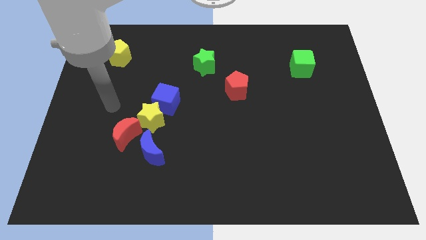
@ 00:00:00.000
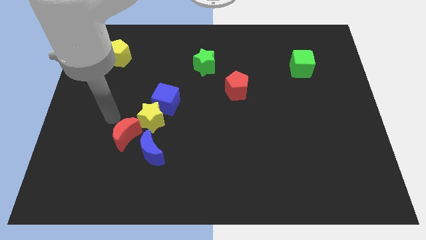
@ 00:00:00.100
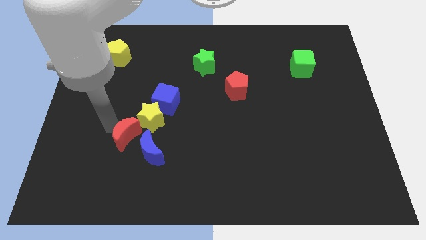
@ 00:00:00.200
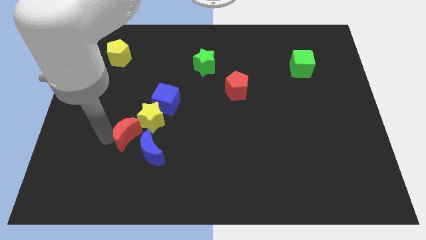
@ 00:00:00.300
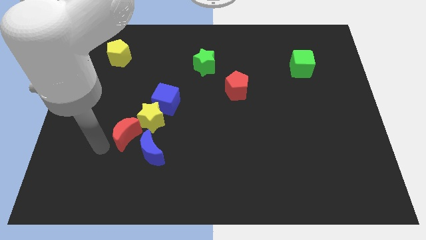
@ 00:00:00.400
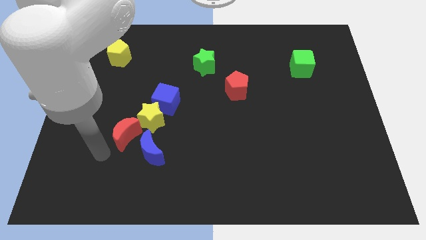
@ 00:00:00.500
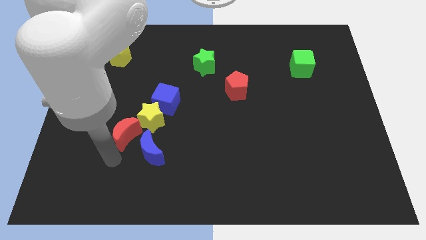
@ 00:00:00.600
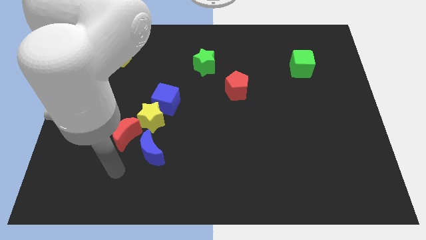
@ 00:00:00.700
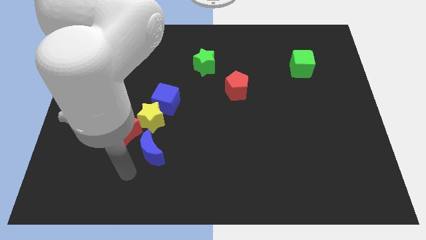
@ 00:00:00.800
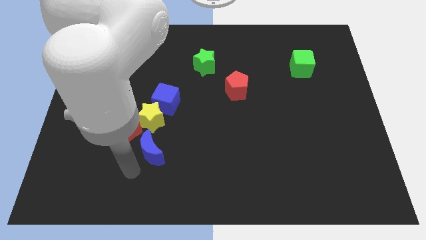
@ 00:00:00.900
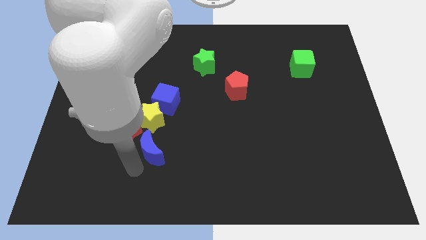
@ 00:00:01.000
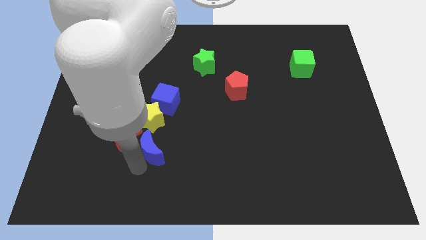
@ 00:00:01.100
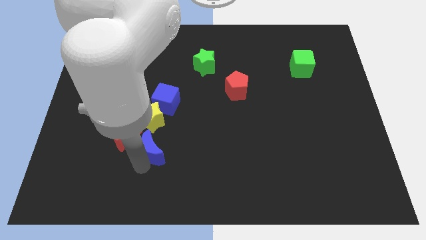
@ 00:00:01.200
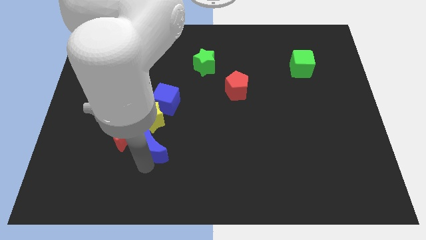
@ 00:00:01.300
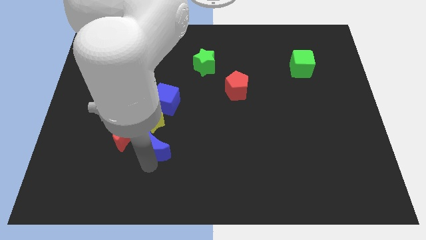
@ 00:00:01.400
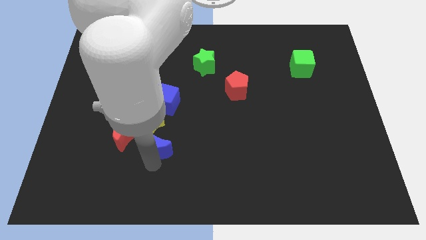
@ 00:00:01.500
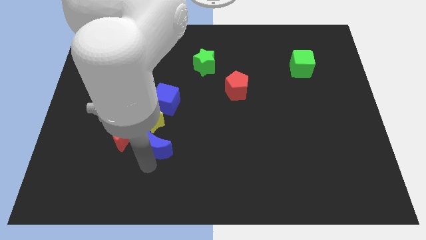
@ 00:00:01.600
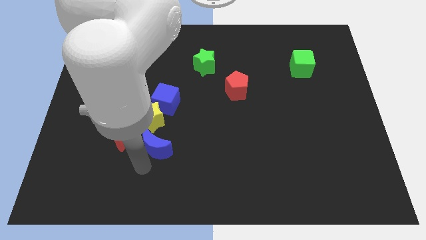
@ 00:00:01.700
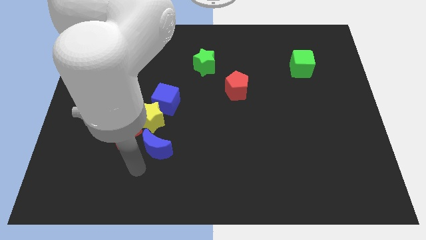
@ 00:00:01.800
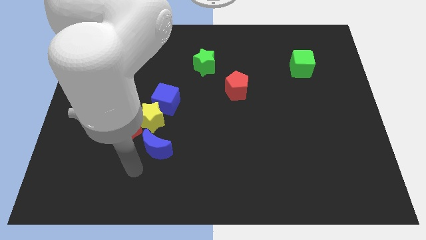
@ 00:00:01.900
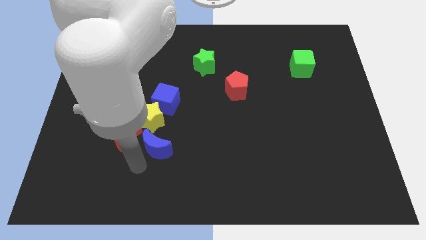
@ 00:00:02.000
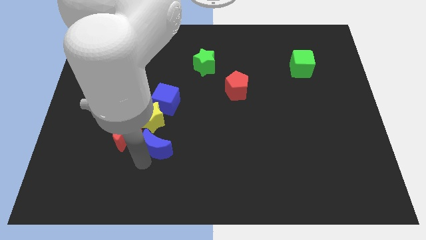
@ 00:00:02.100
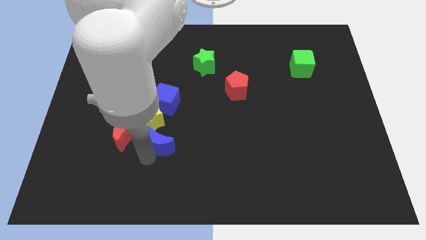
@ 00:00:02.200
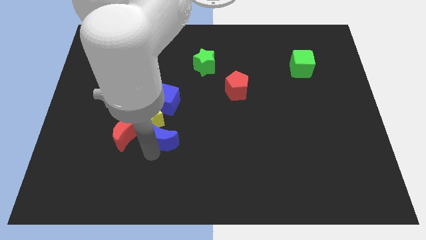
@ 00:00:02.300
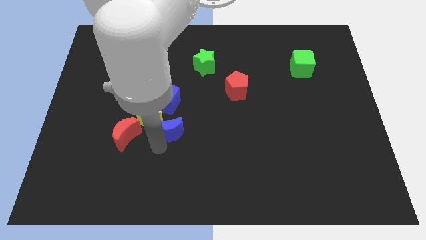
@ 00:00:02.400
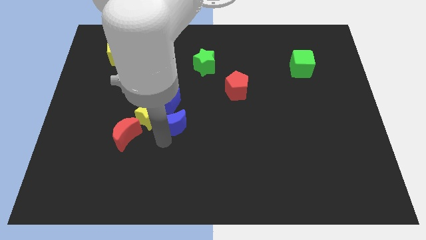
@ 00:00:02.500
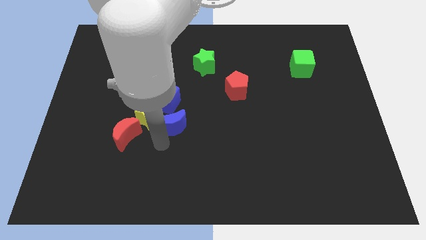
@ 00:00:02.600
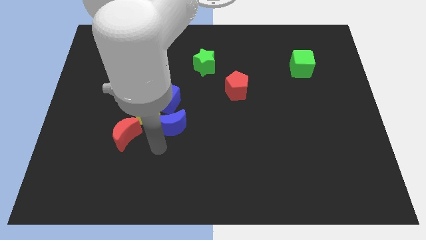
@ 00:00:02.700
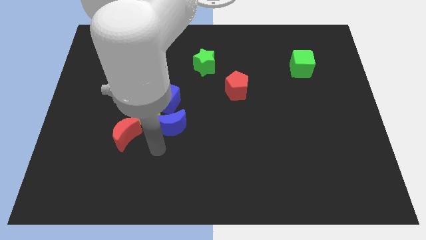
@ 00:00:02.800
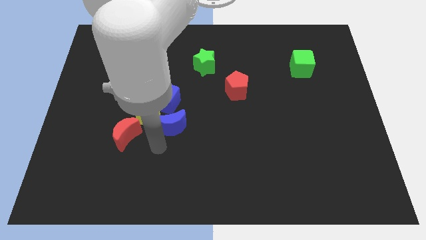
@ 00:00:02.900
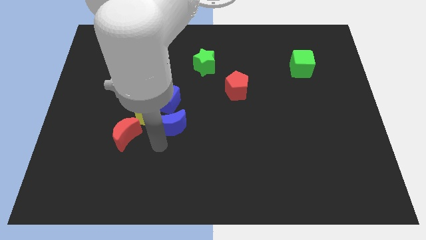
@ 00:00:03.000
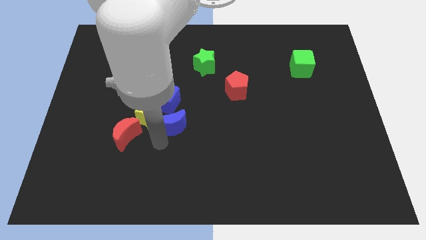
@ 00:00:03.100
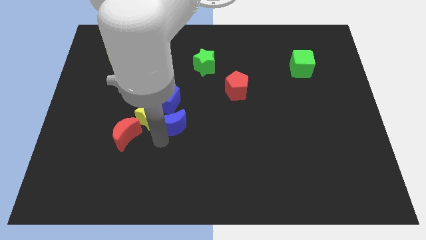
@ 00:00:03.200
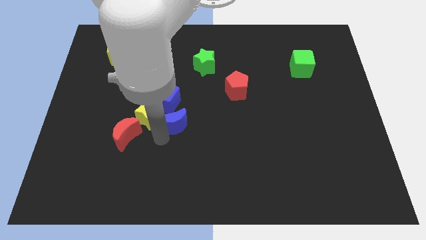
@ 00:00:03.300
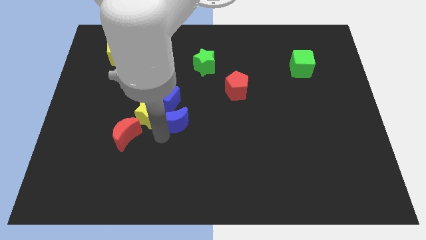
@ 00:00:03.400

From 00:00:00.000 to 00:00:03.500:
slide the blue moon a little upwards

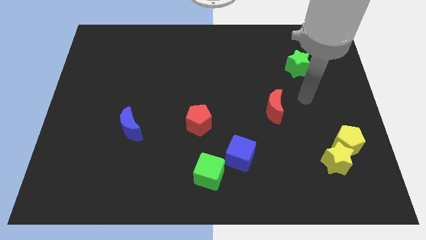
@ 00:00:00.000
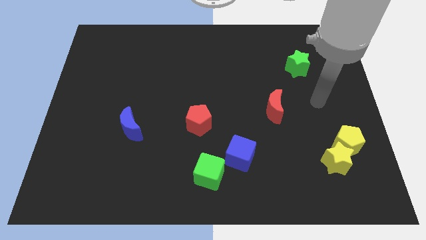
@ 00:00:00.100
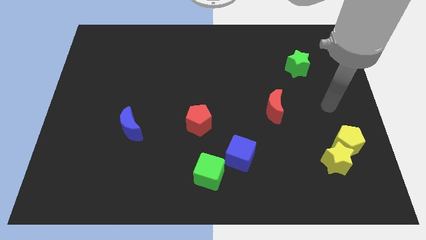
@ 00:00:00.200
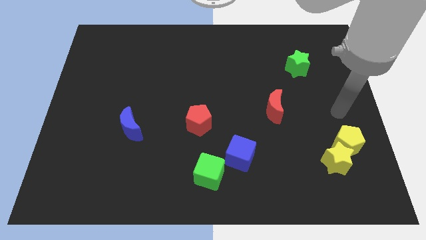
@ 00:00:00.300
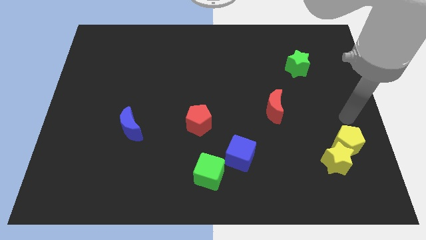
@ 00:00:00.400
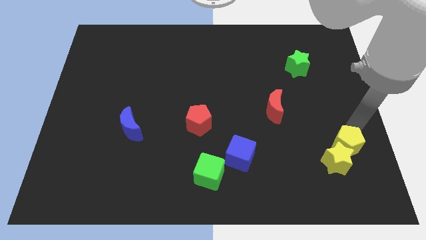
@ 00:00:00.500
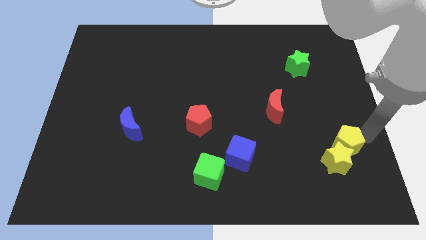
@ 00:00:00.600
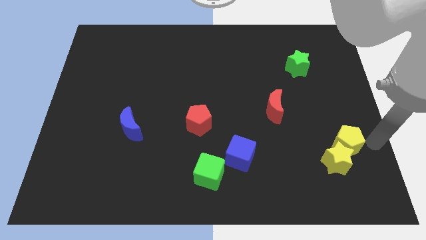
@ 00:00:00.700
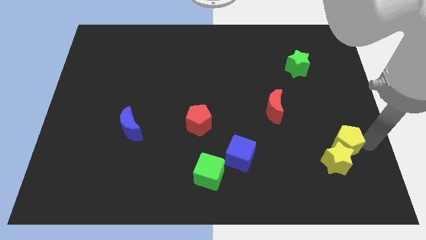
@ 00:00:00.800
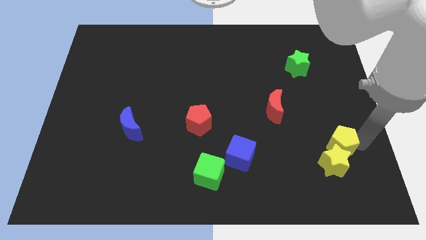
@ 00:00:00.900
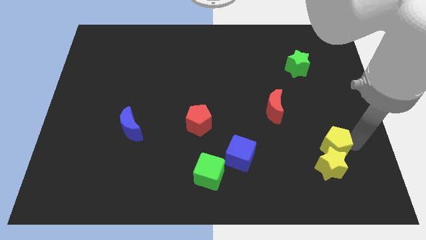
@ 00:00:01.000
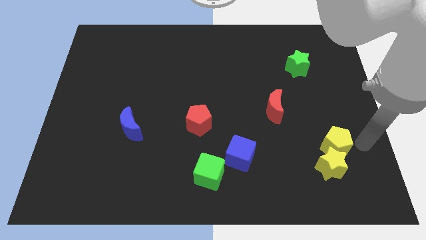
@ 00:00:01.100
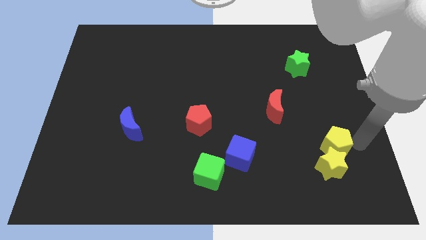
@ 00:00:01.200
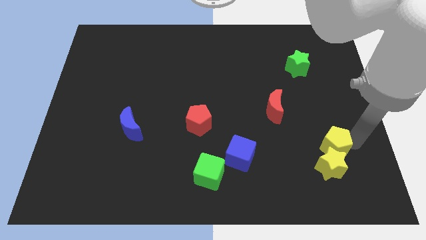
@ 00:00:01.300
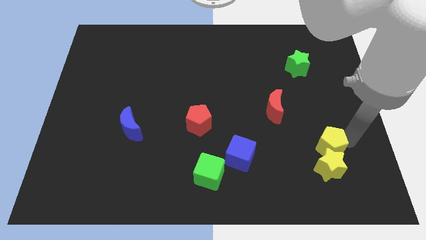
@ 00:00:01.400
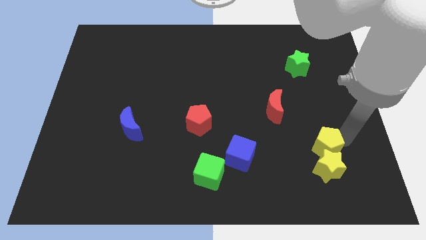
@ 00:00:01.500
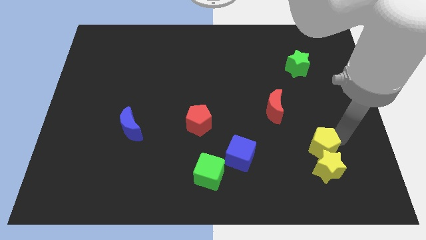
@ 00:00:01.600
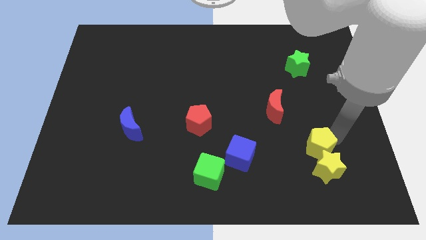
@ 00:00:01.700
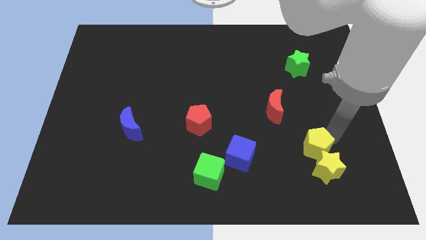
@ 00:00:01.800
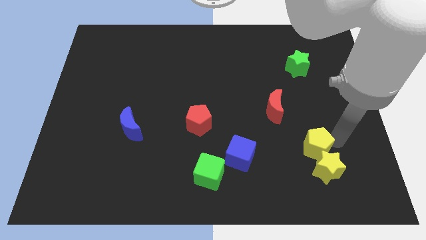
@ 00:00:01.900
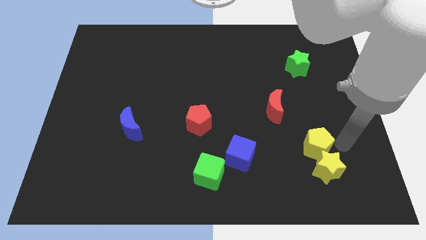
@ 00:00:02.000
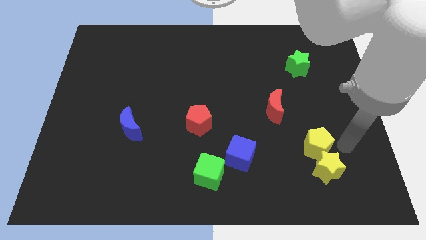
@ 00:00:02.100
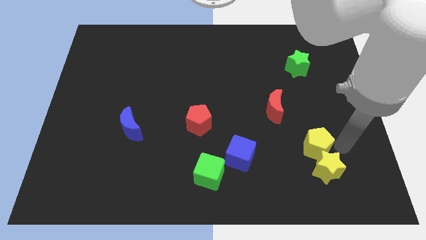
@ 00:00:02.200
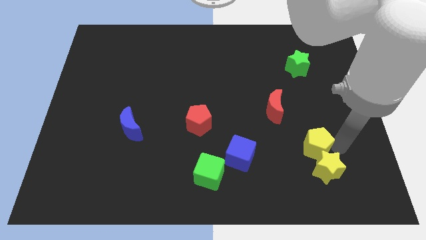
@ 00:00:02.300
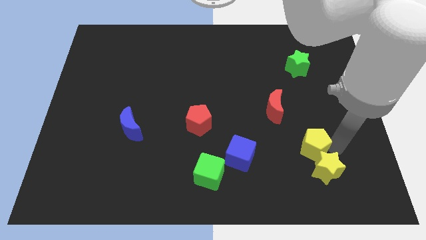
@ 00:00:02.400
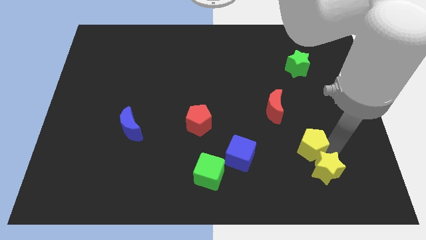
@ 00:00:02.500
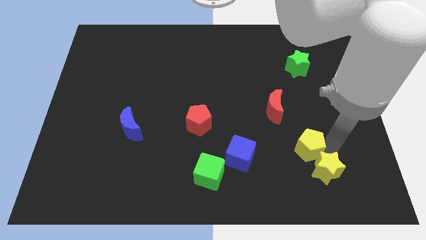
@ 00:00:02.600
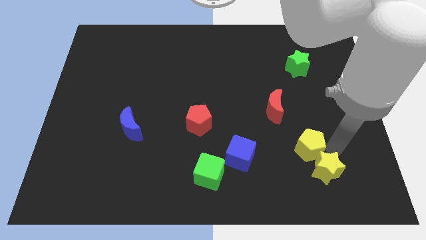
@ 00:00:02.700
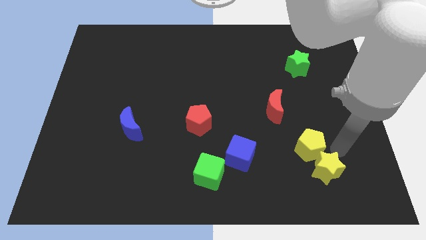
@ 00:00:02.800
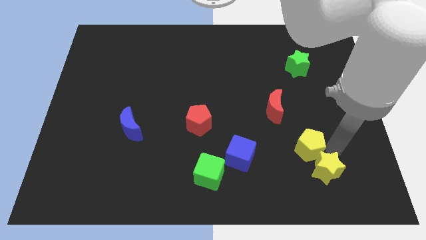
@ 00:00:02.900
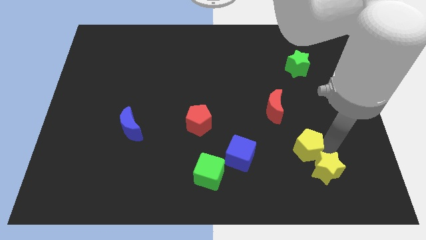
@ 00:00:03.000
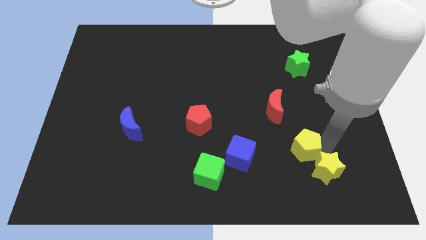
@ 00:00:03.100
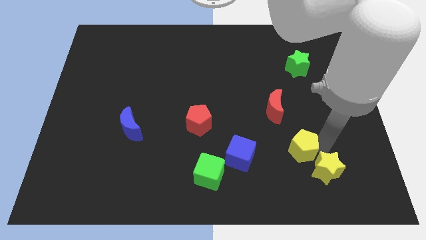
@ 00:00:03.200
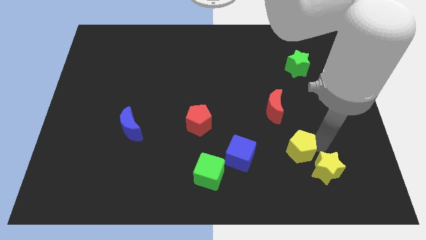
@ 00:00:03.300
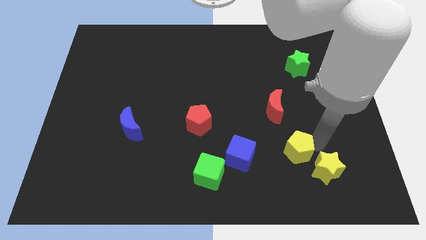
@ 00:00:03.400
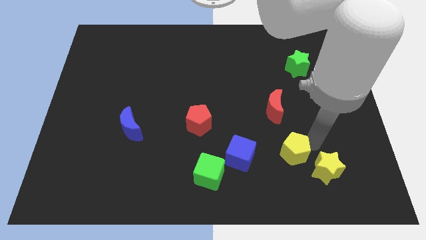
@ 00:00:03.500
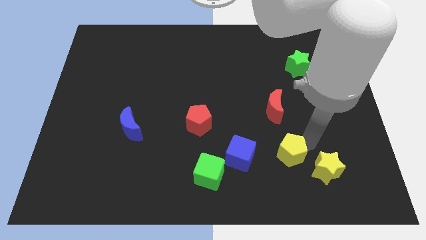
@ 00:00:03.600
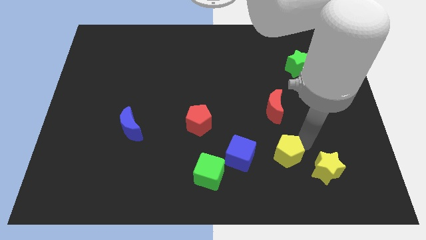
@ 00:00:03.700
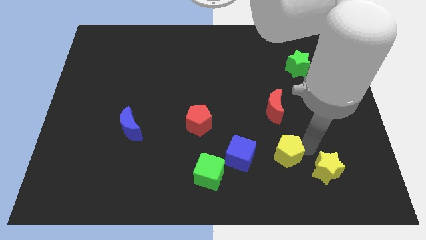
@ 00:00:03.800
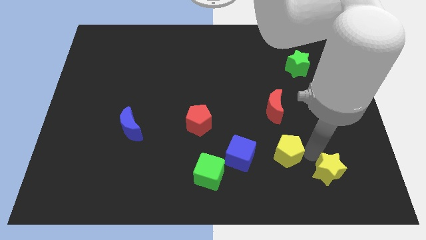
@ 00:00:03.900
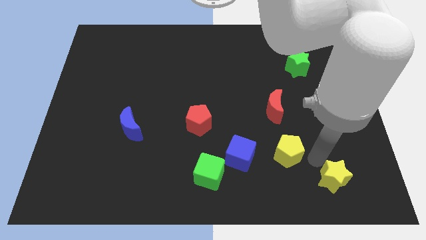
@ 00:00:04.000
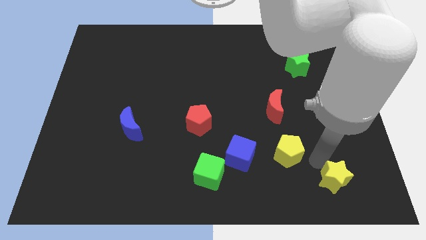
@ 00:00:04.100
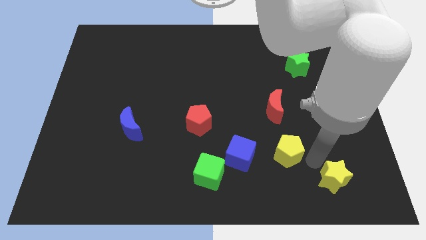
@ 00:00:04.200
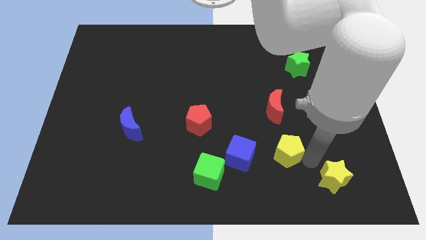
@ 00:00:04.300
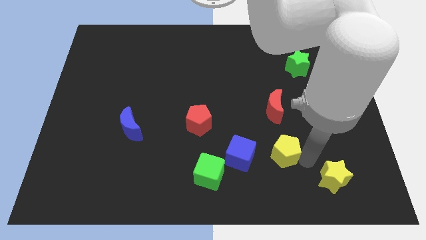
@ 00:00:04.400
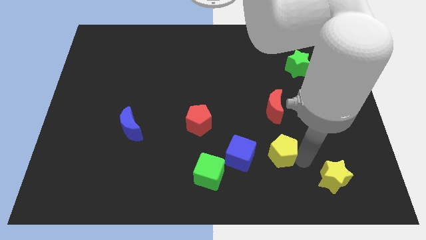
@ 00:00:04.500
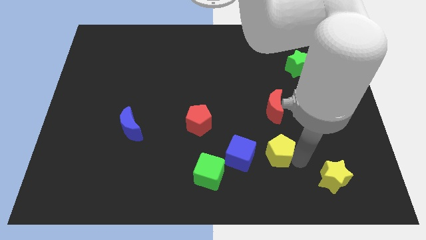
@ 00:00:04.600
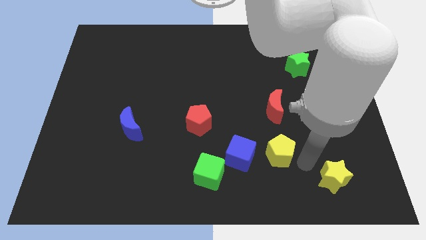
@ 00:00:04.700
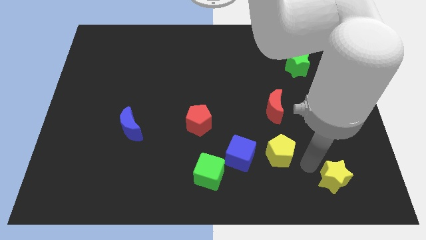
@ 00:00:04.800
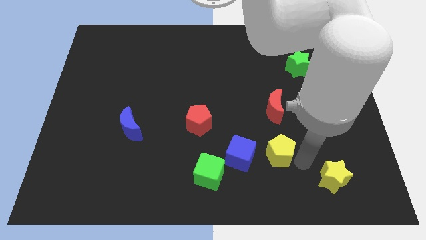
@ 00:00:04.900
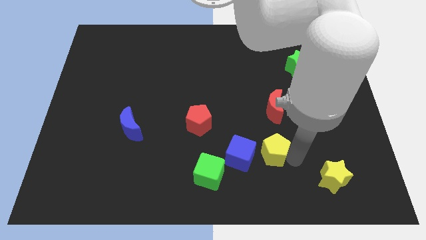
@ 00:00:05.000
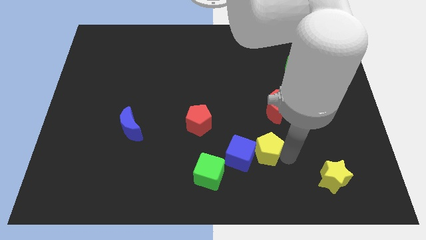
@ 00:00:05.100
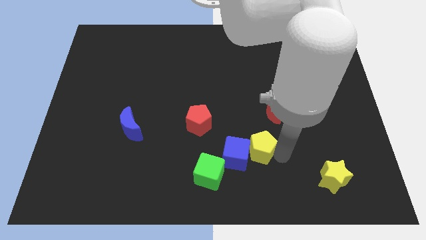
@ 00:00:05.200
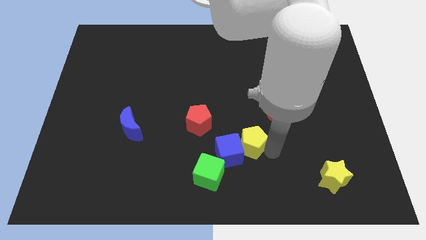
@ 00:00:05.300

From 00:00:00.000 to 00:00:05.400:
push the yellow pentagon to the left
